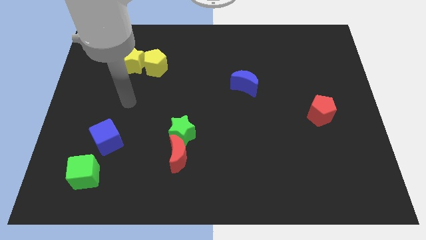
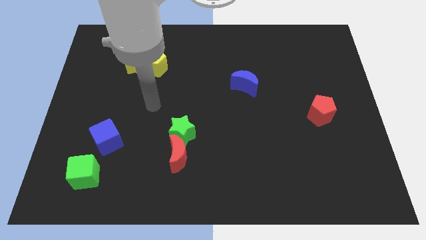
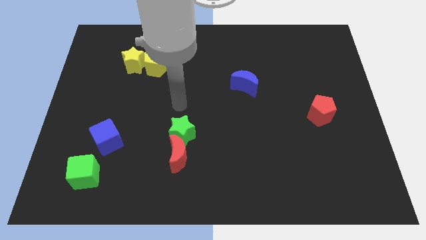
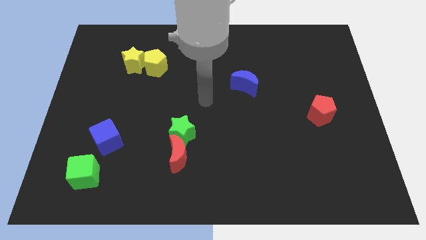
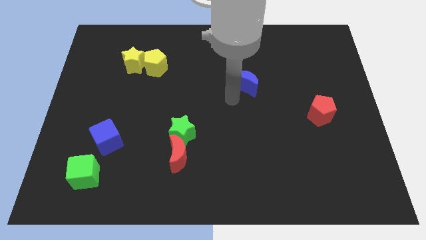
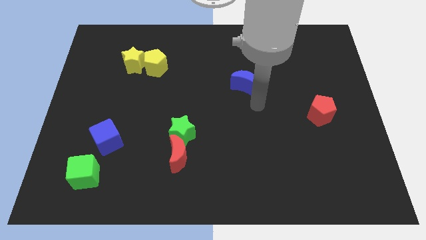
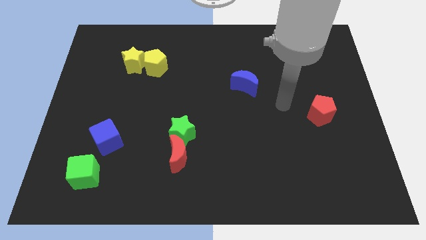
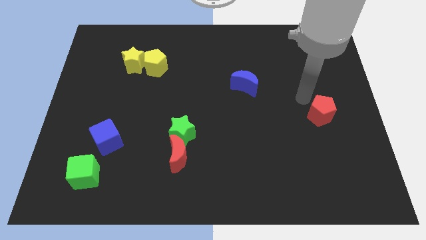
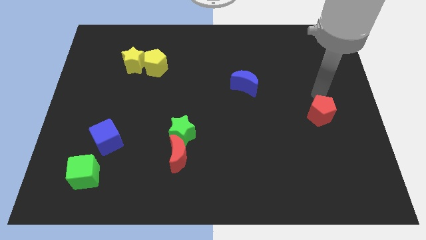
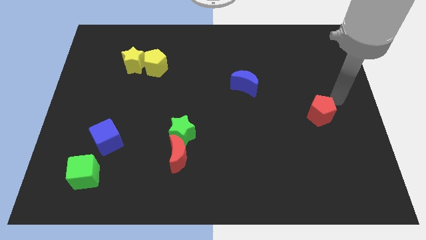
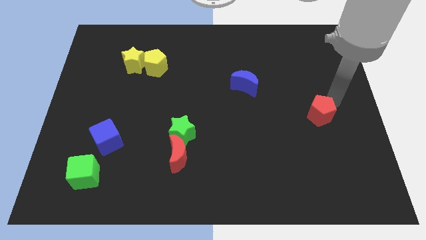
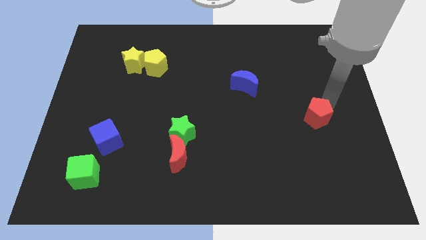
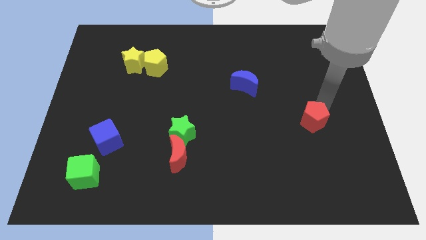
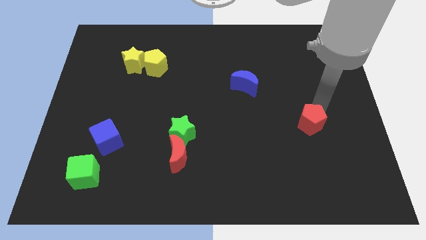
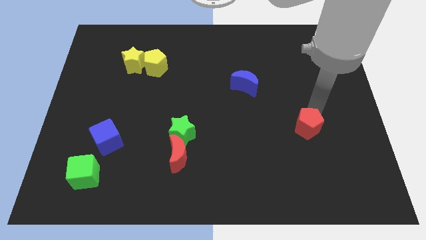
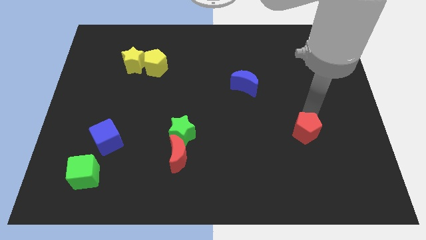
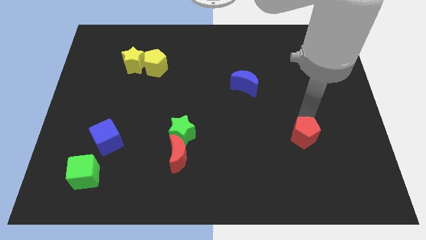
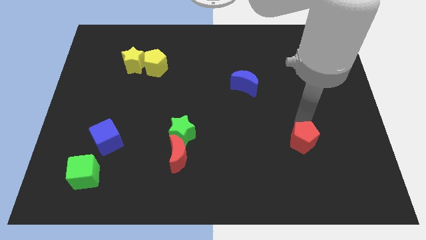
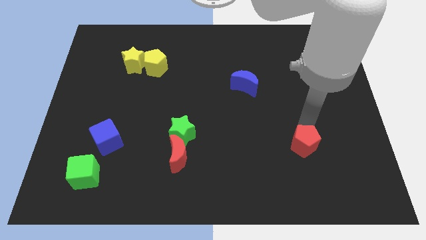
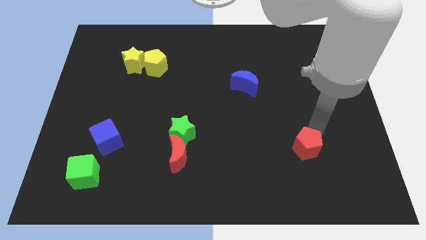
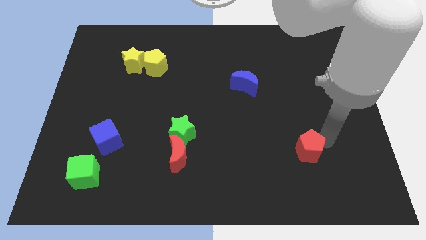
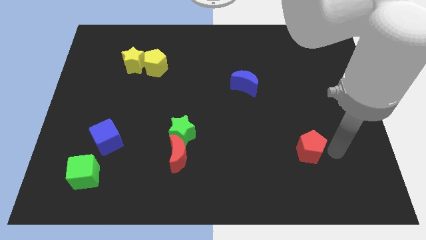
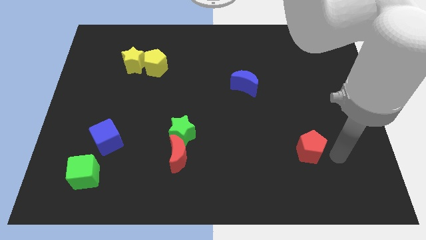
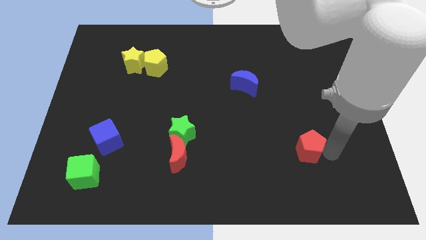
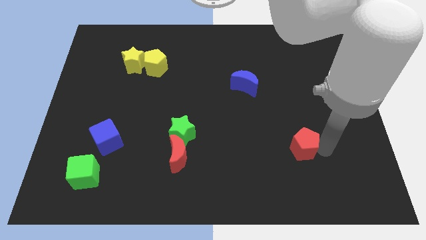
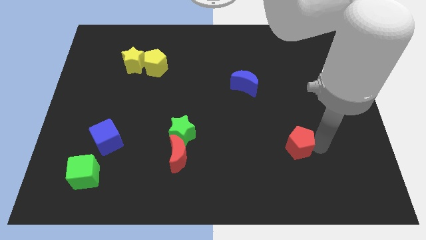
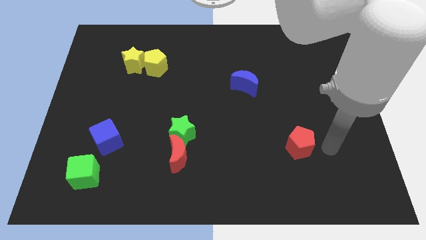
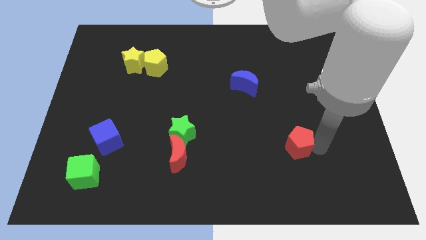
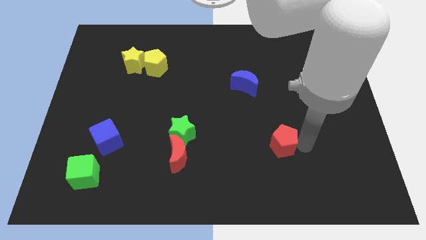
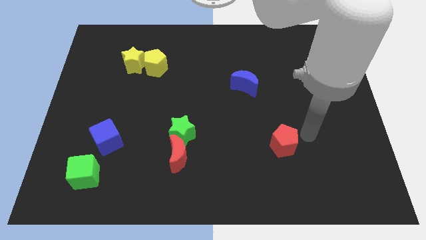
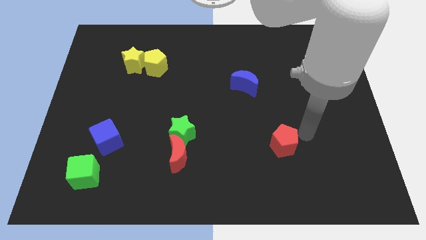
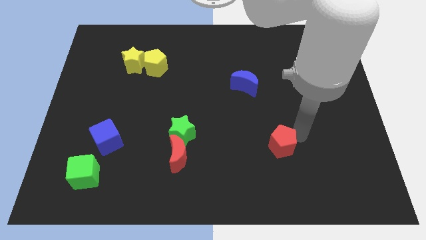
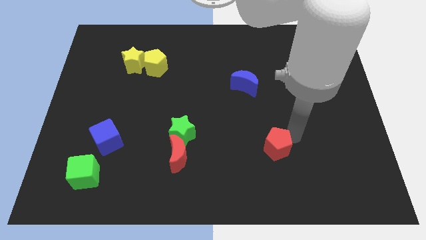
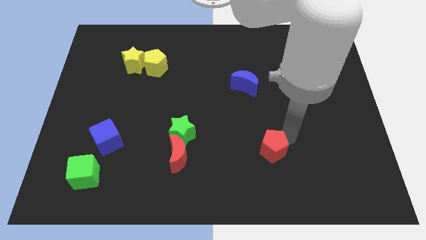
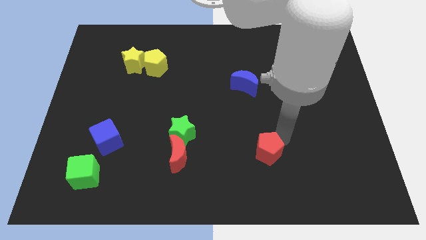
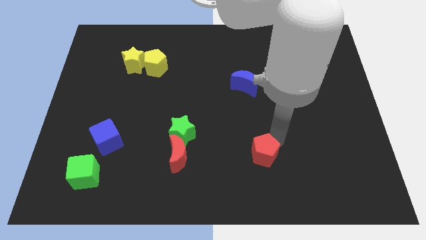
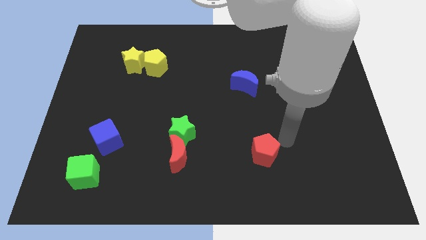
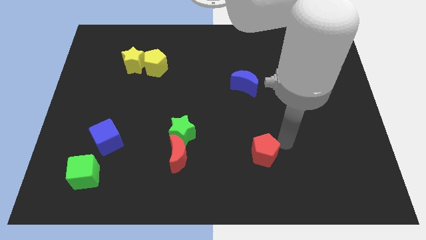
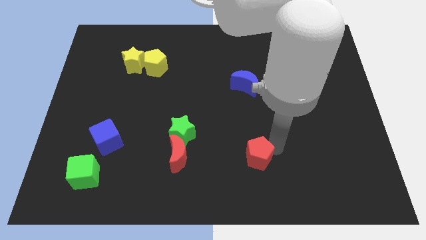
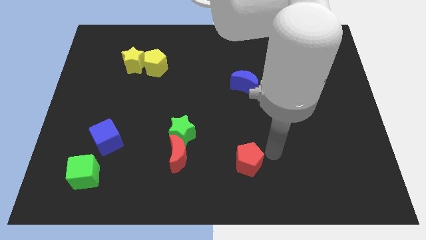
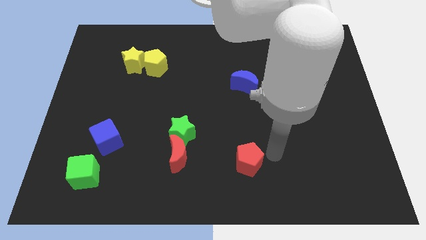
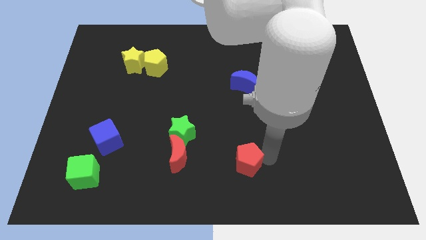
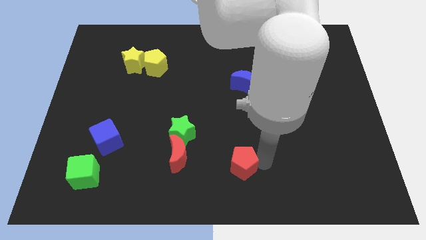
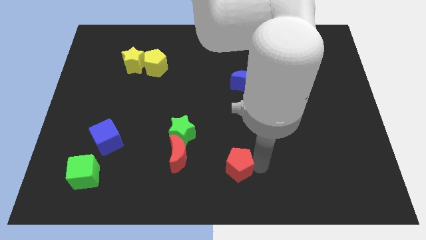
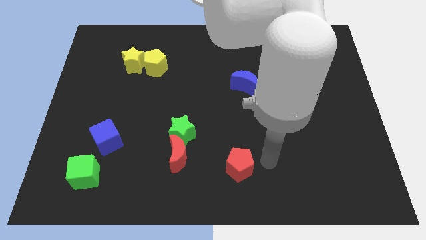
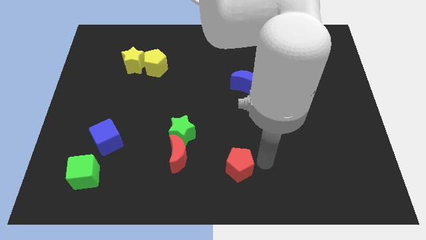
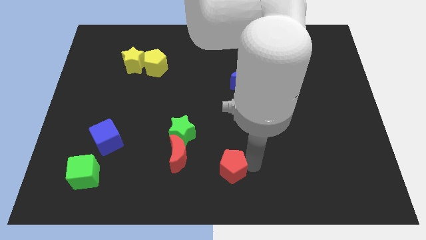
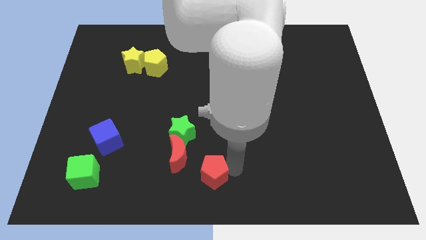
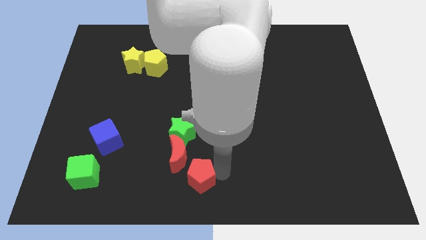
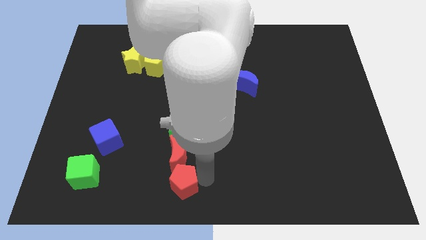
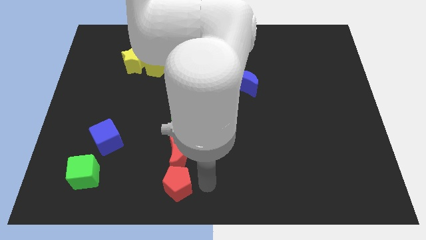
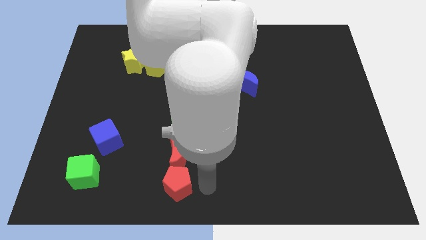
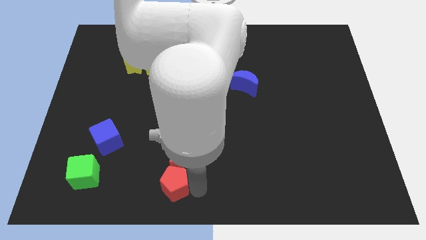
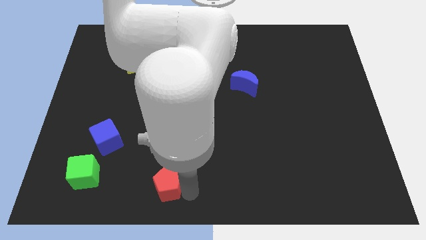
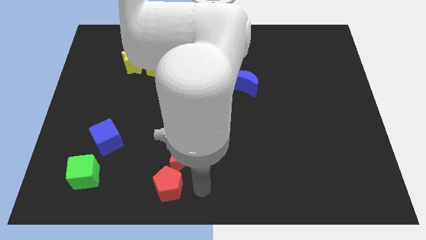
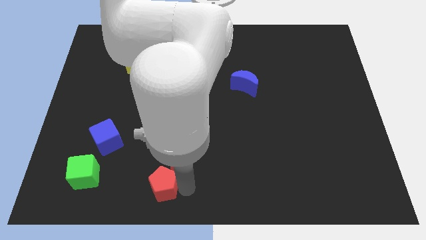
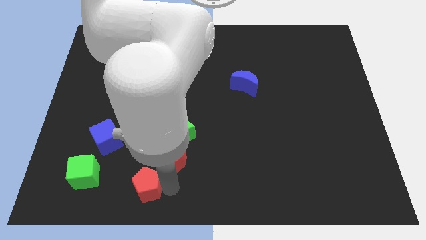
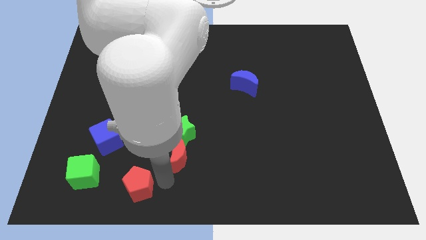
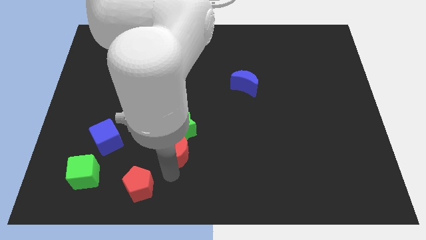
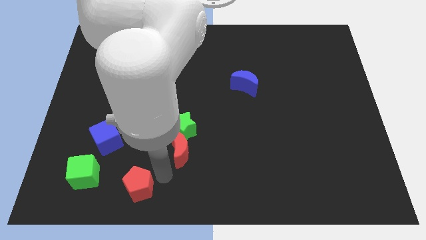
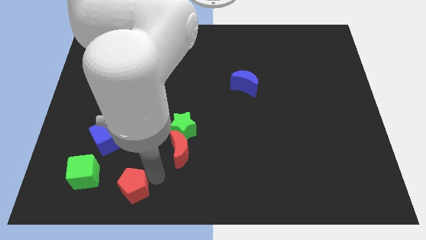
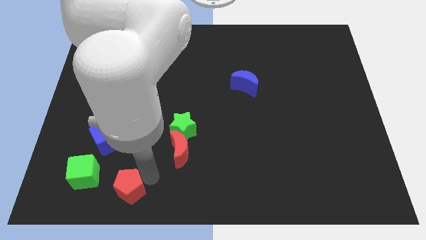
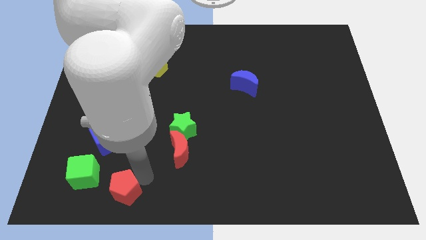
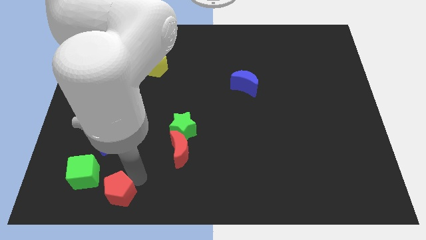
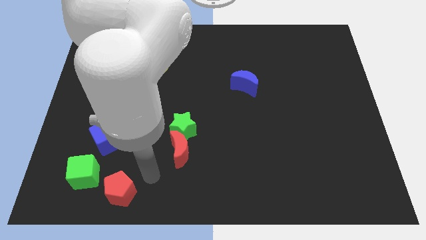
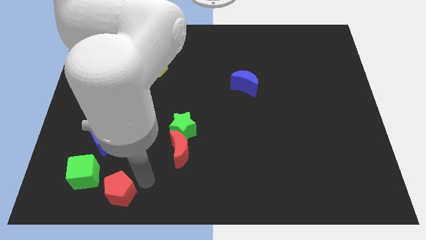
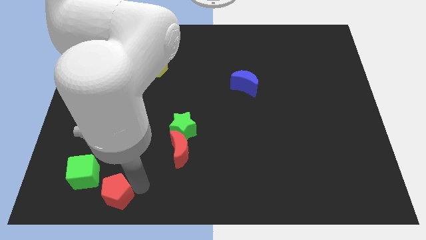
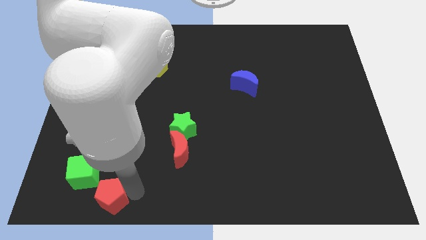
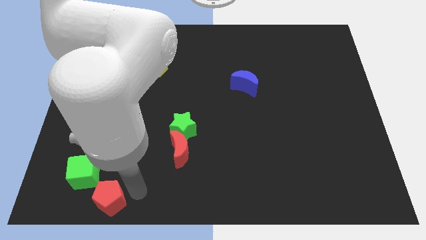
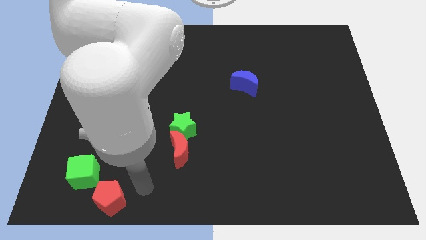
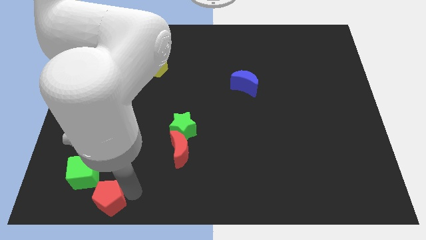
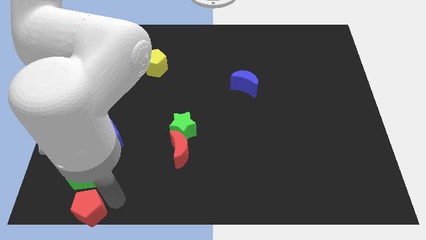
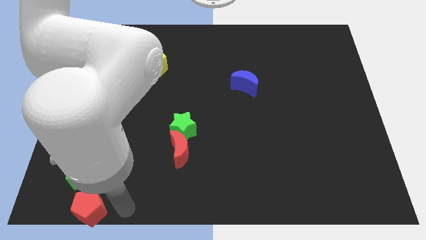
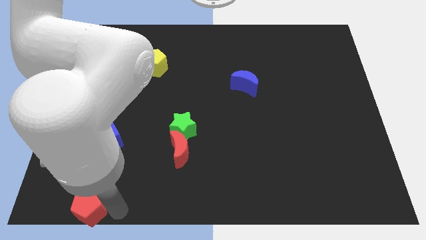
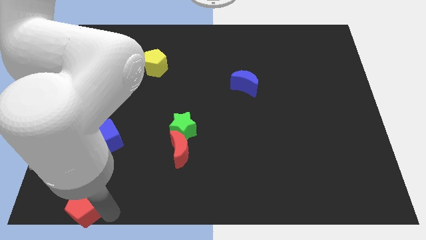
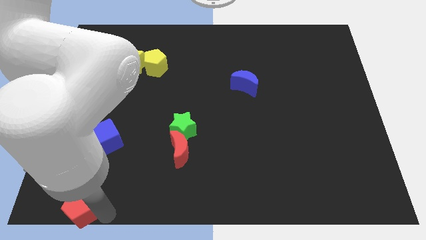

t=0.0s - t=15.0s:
move the red pentagon to the lower left corner
